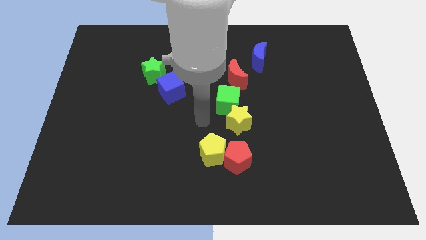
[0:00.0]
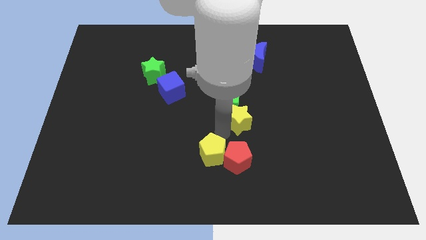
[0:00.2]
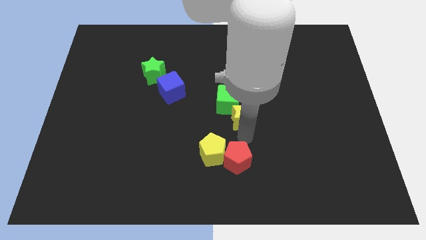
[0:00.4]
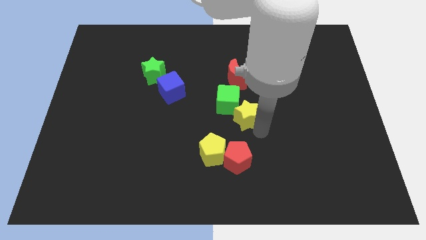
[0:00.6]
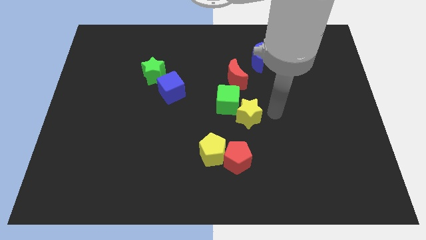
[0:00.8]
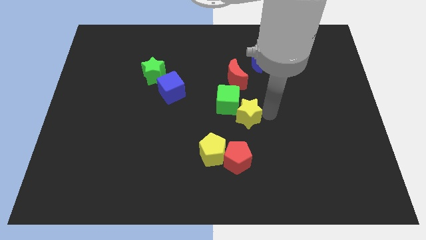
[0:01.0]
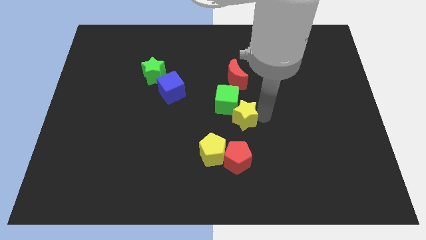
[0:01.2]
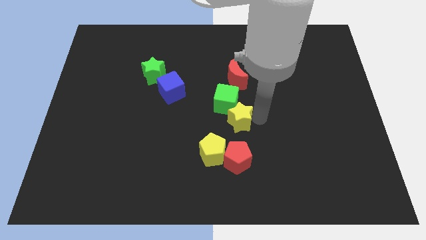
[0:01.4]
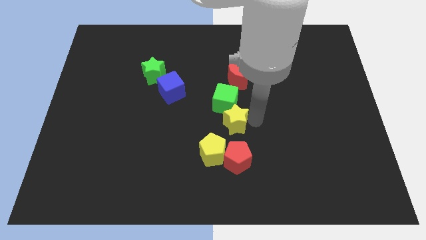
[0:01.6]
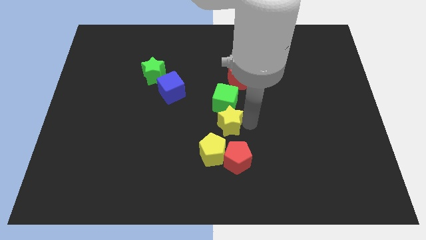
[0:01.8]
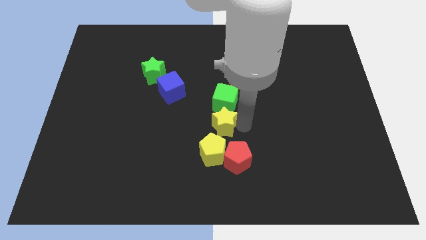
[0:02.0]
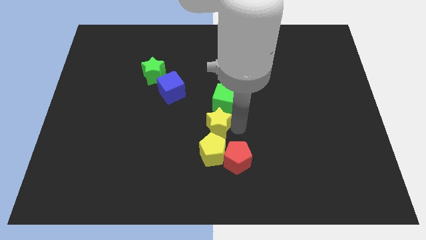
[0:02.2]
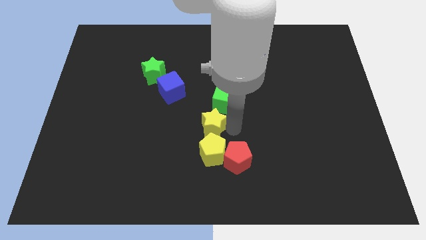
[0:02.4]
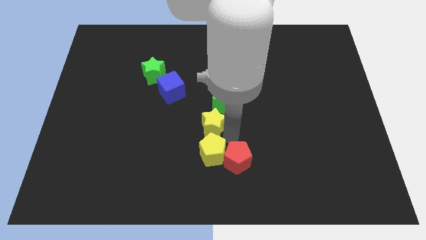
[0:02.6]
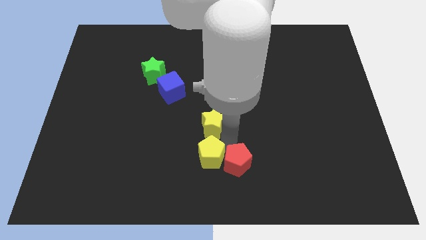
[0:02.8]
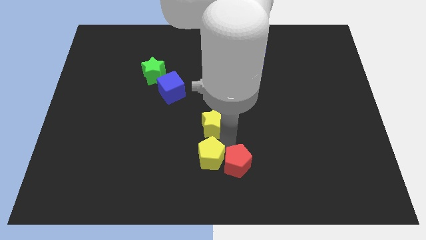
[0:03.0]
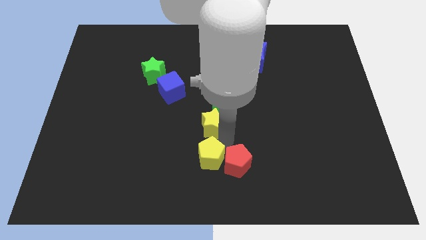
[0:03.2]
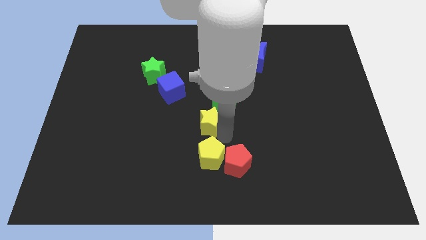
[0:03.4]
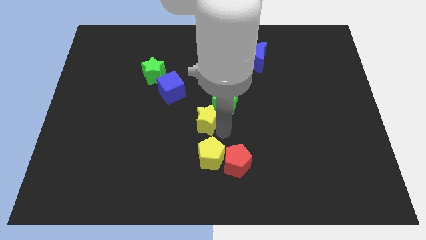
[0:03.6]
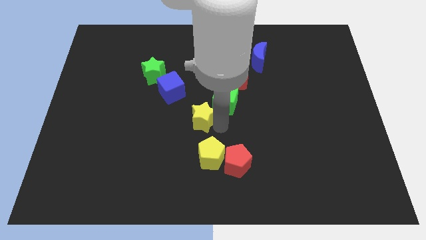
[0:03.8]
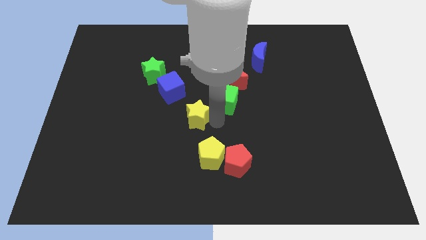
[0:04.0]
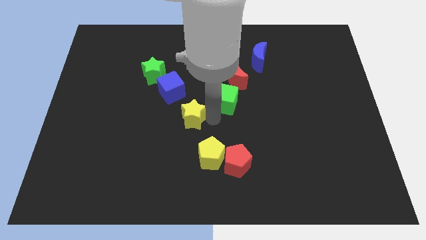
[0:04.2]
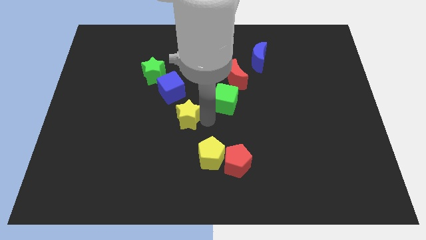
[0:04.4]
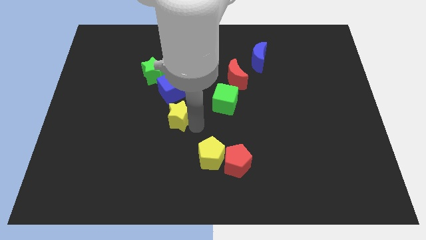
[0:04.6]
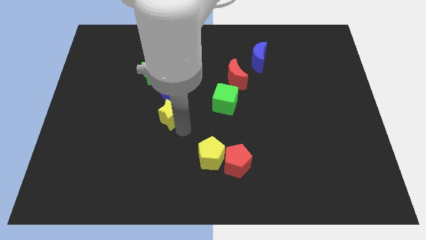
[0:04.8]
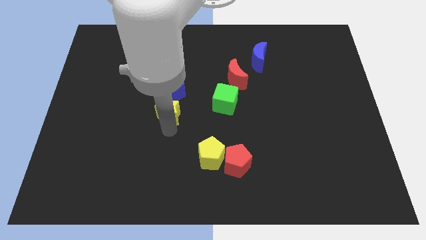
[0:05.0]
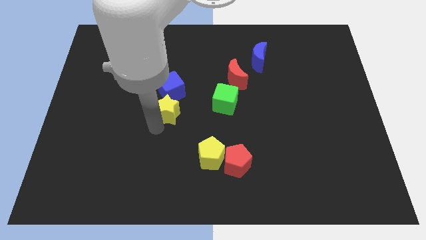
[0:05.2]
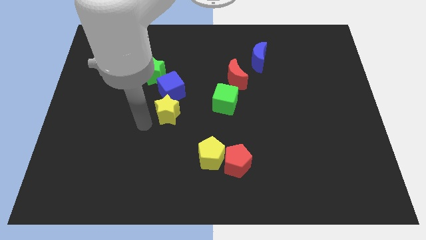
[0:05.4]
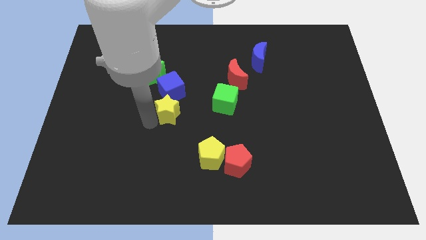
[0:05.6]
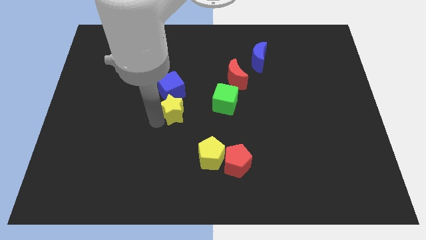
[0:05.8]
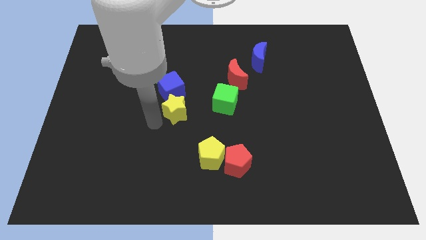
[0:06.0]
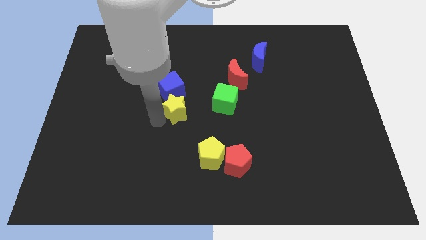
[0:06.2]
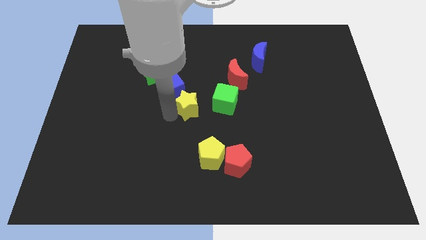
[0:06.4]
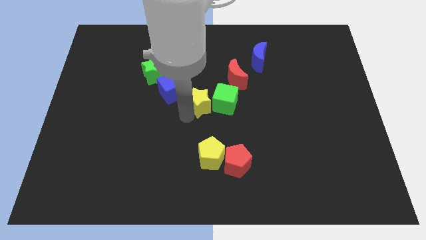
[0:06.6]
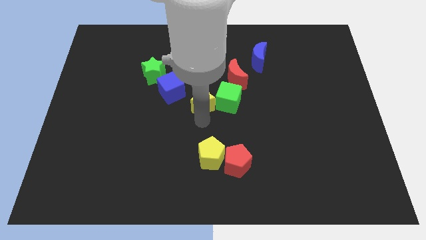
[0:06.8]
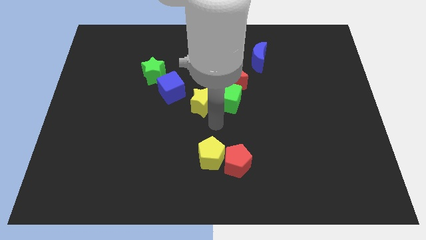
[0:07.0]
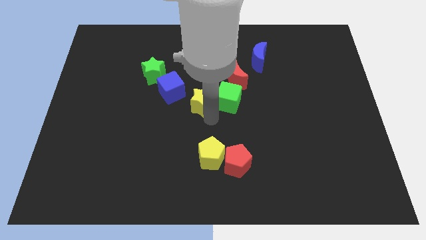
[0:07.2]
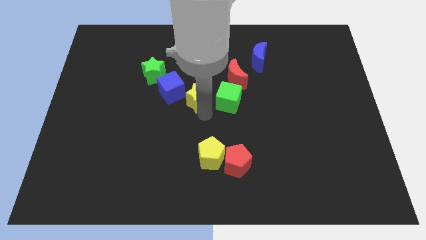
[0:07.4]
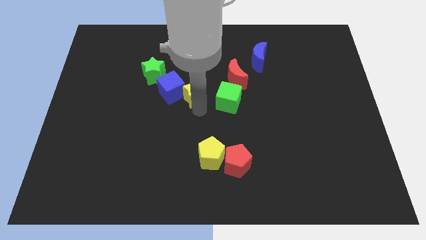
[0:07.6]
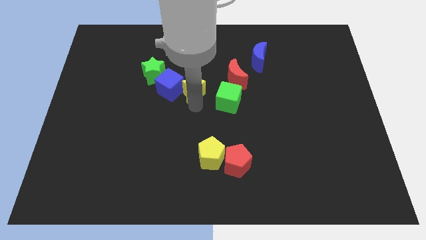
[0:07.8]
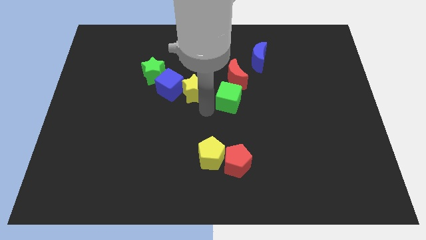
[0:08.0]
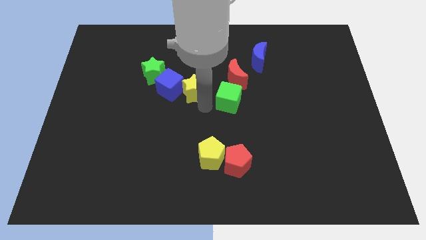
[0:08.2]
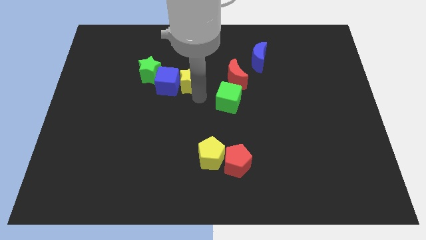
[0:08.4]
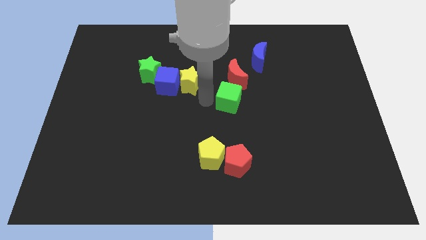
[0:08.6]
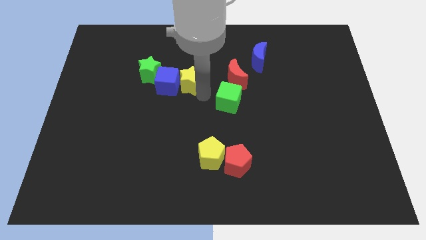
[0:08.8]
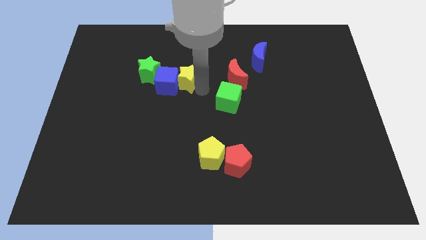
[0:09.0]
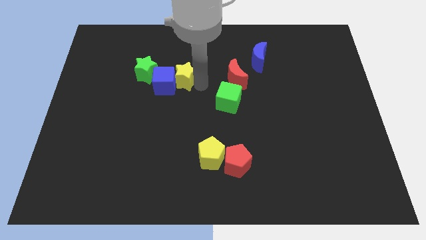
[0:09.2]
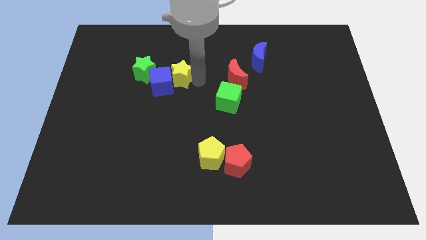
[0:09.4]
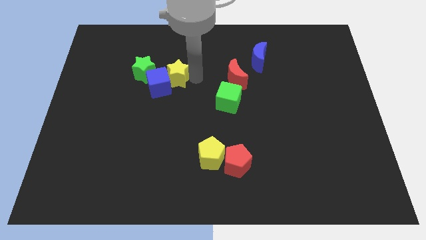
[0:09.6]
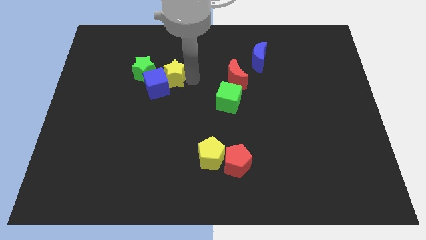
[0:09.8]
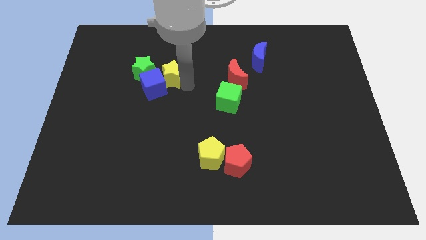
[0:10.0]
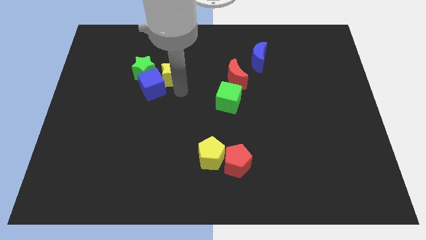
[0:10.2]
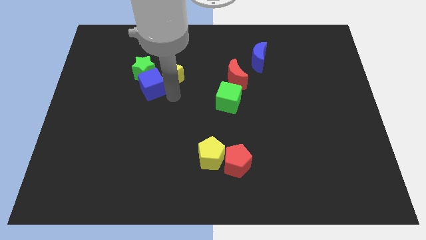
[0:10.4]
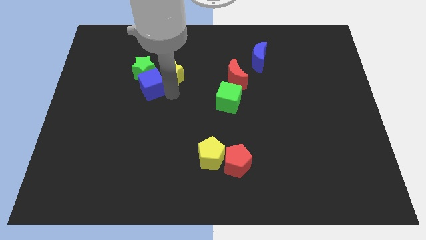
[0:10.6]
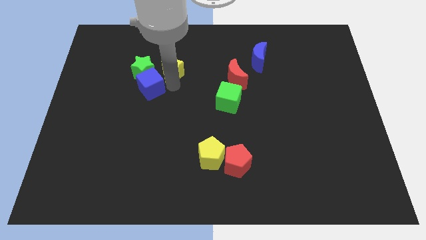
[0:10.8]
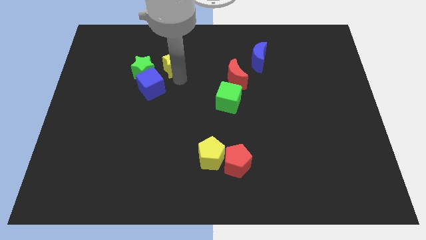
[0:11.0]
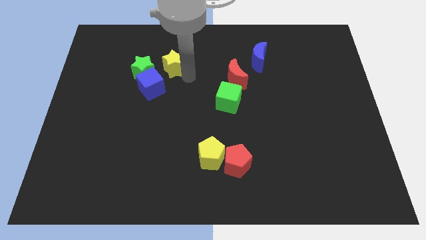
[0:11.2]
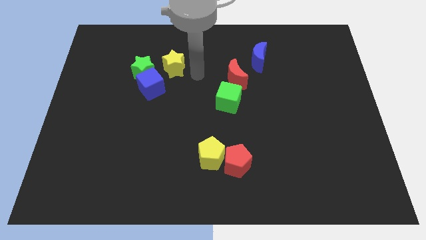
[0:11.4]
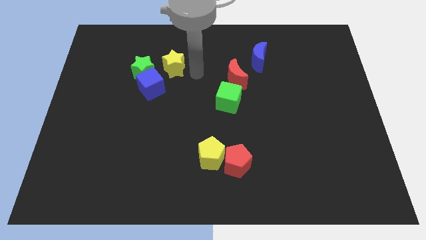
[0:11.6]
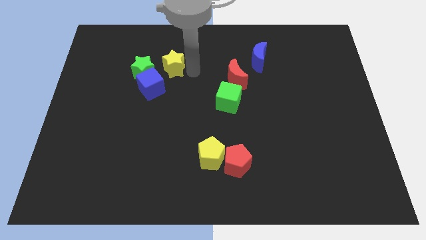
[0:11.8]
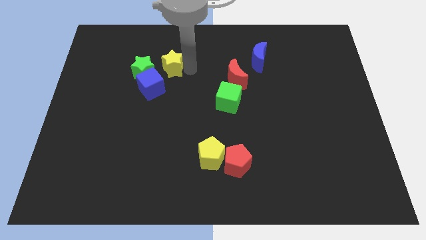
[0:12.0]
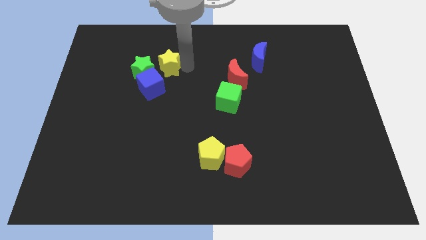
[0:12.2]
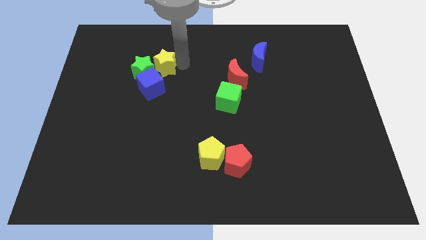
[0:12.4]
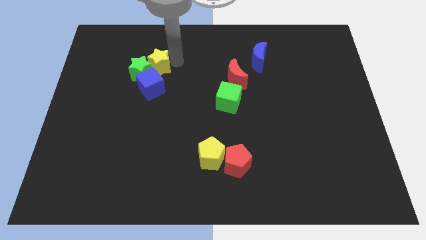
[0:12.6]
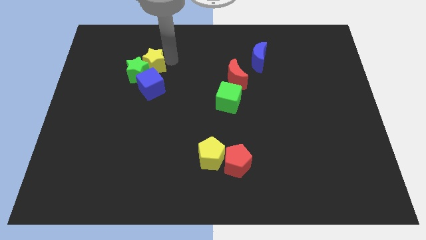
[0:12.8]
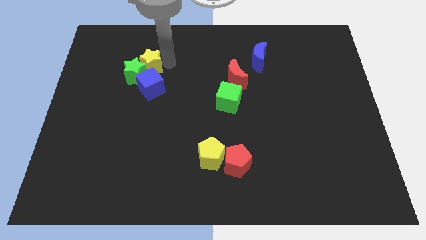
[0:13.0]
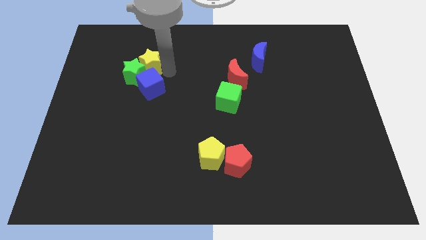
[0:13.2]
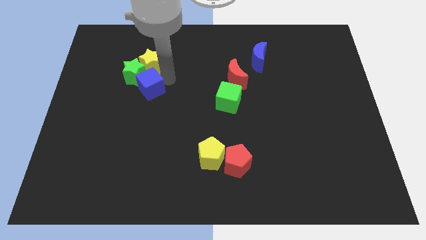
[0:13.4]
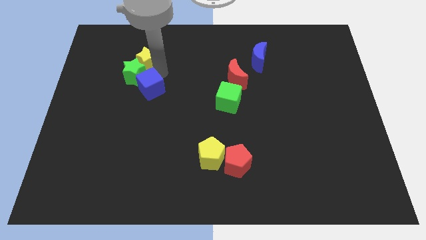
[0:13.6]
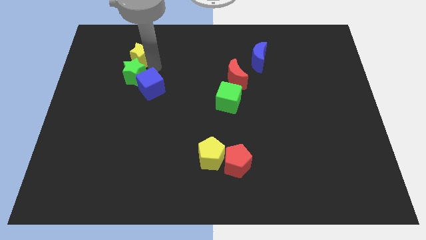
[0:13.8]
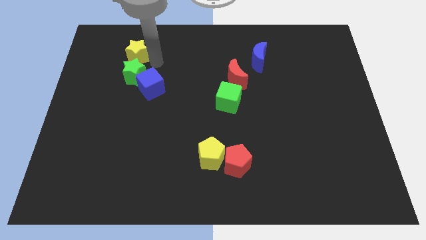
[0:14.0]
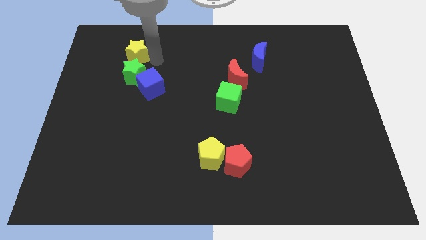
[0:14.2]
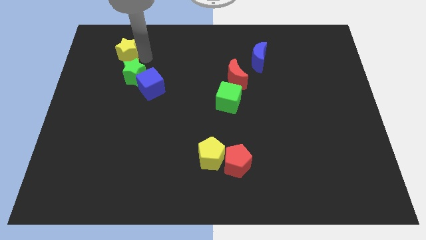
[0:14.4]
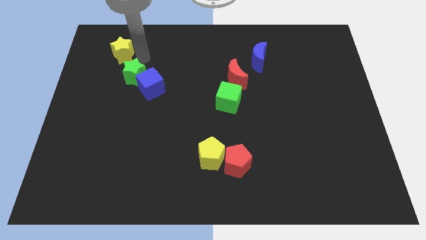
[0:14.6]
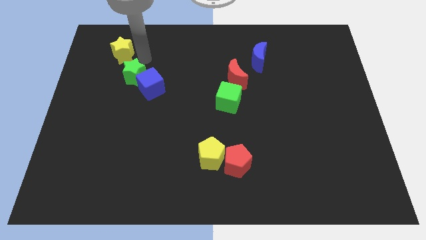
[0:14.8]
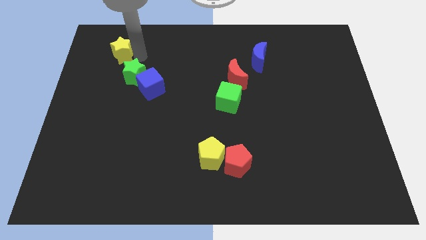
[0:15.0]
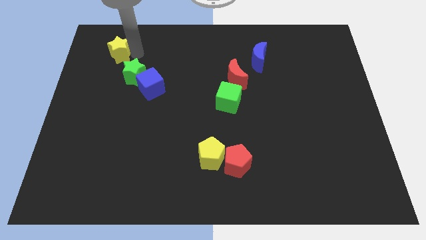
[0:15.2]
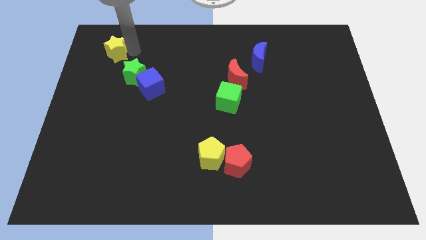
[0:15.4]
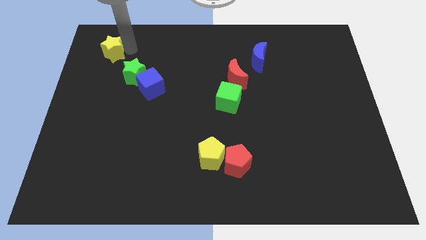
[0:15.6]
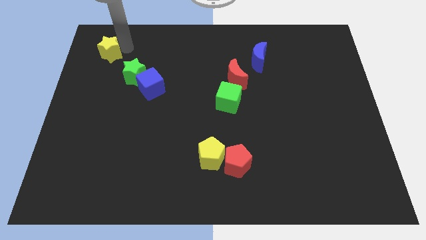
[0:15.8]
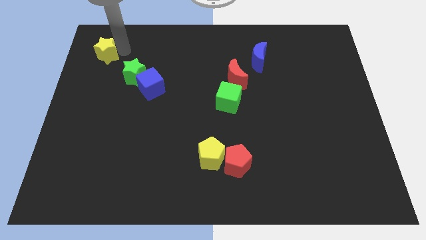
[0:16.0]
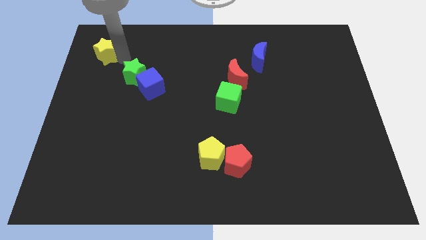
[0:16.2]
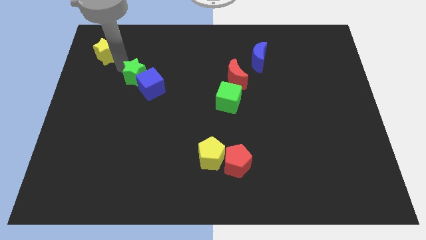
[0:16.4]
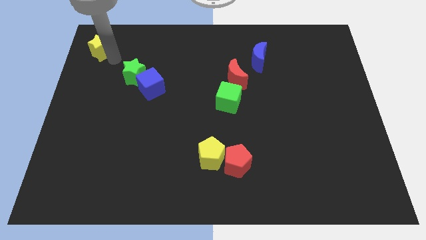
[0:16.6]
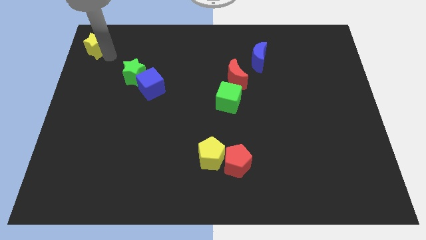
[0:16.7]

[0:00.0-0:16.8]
move the yellow star to the upper left corner
